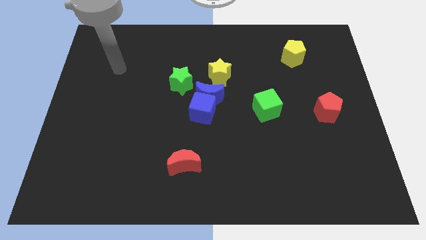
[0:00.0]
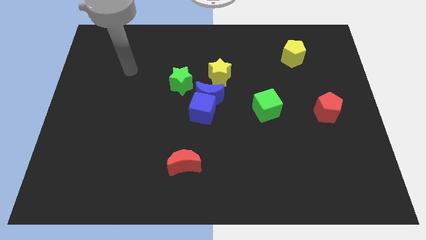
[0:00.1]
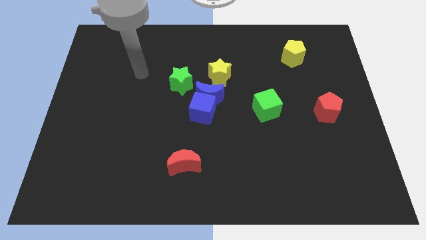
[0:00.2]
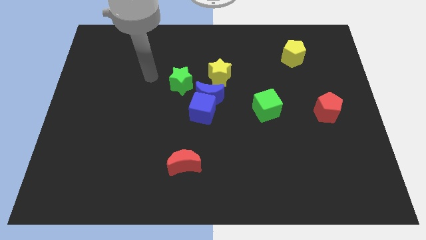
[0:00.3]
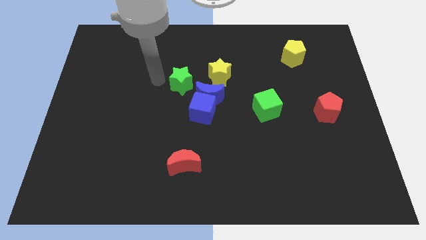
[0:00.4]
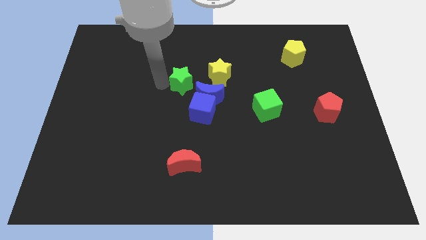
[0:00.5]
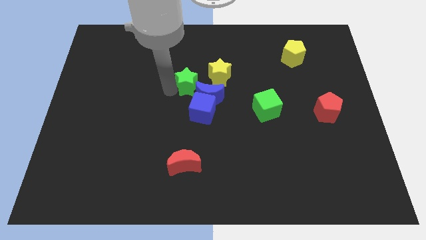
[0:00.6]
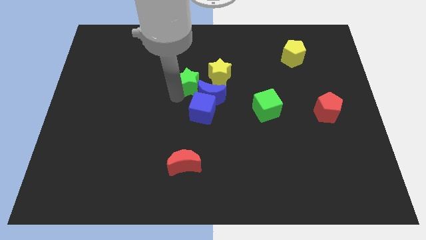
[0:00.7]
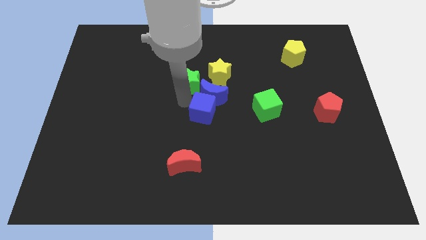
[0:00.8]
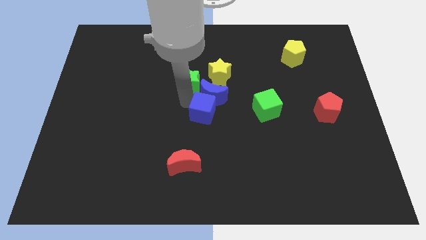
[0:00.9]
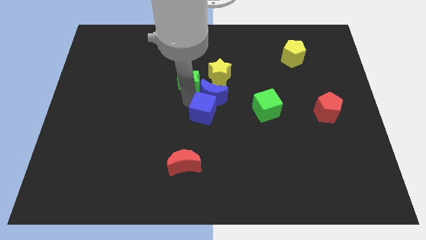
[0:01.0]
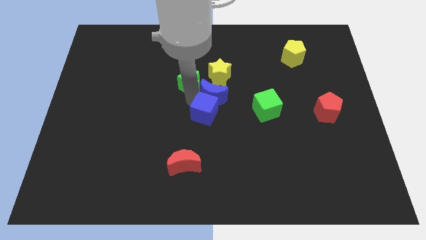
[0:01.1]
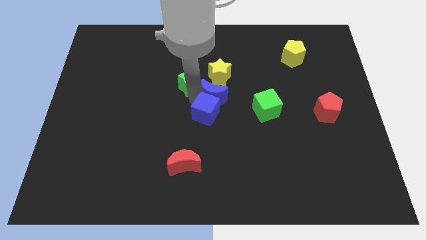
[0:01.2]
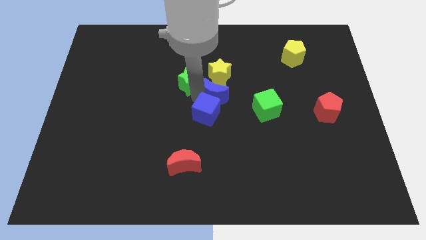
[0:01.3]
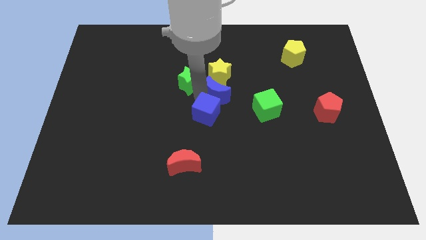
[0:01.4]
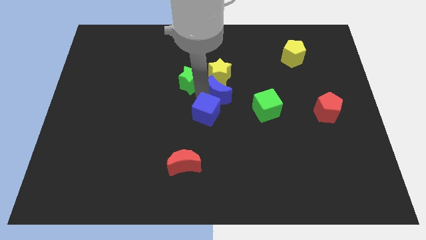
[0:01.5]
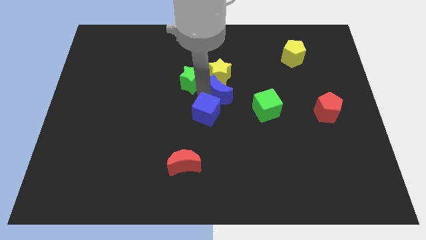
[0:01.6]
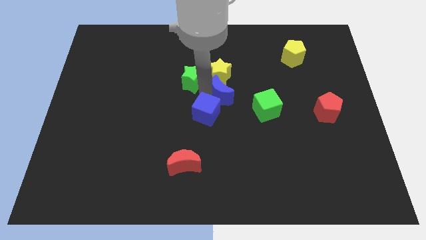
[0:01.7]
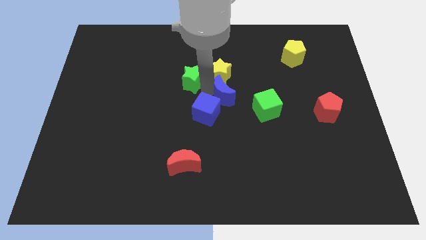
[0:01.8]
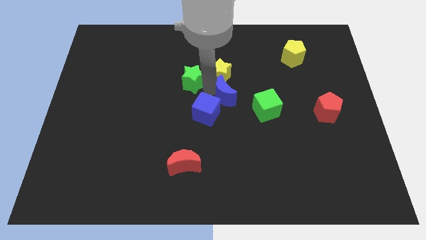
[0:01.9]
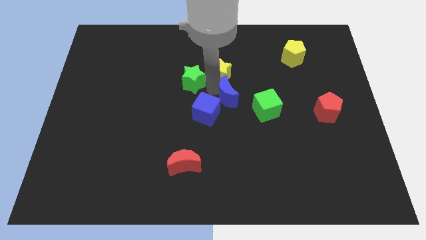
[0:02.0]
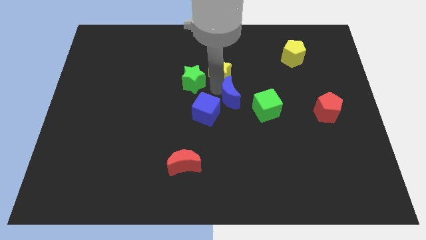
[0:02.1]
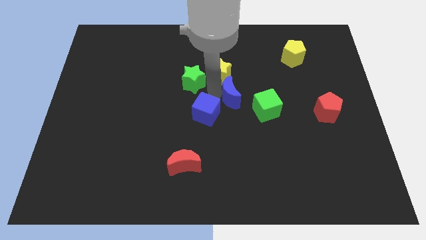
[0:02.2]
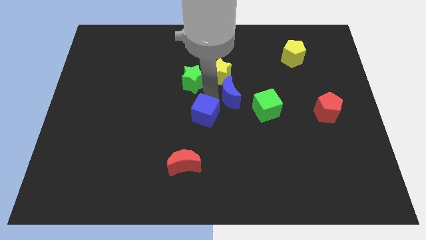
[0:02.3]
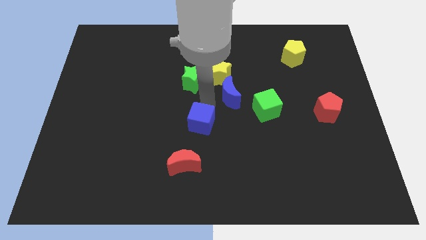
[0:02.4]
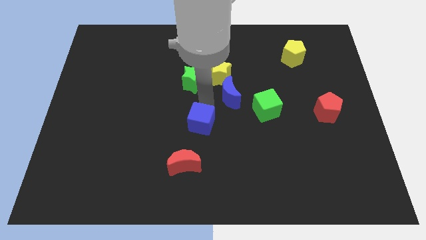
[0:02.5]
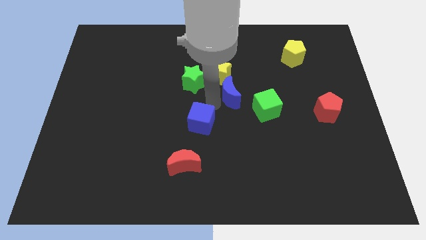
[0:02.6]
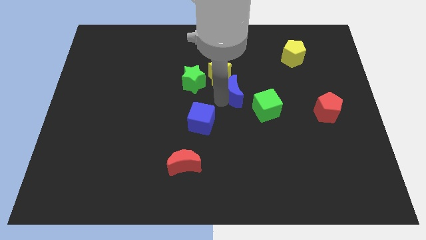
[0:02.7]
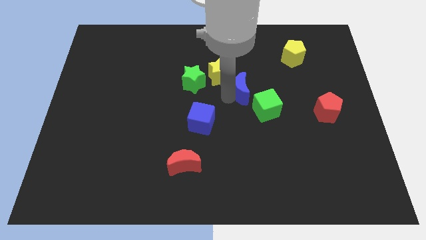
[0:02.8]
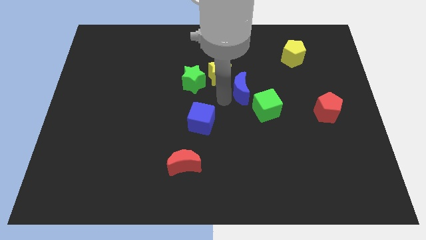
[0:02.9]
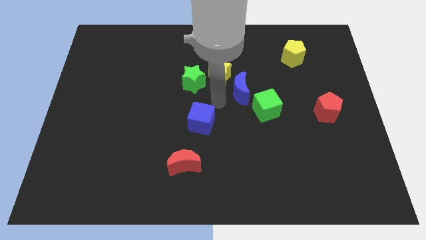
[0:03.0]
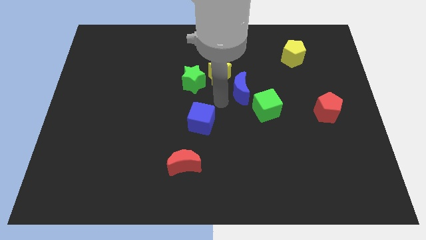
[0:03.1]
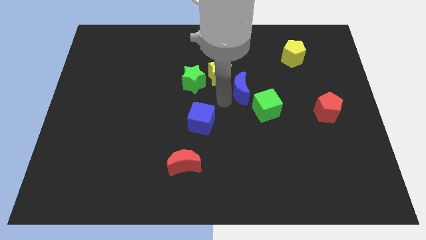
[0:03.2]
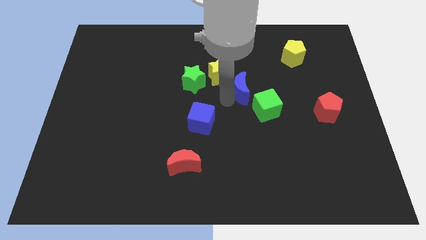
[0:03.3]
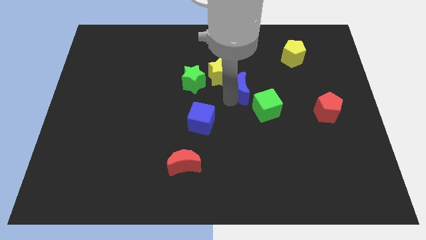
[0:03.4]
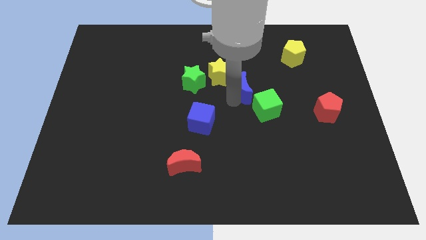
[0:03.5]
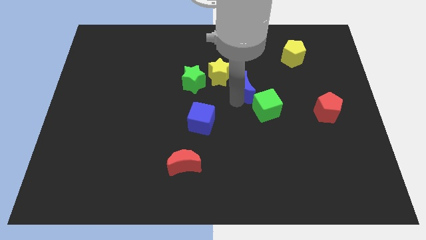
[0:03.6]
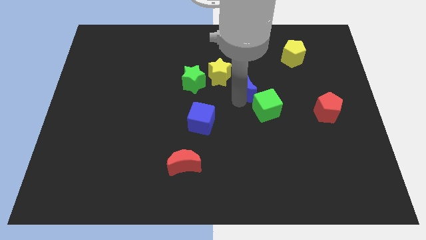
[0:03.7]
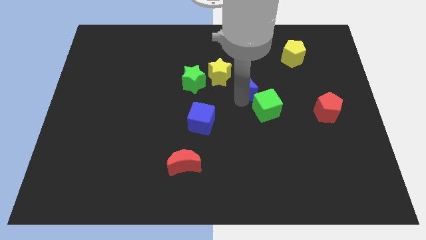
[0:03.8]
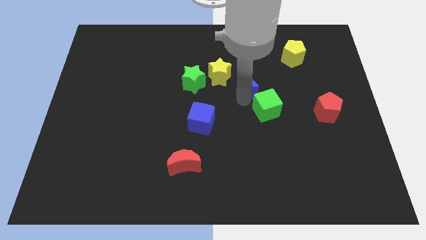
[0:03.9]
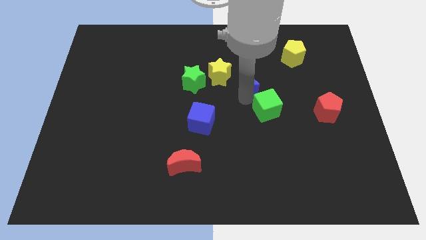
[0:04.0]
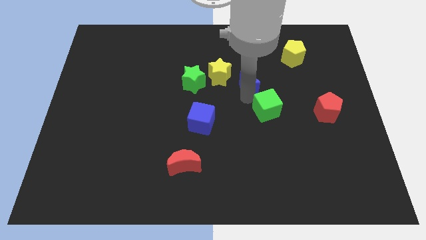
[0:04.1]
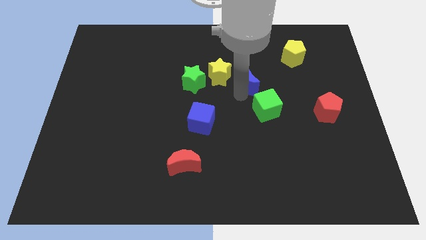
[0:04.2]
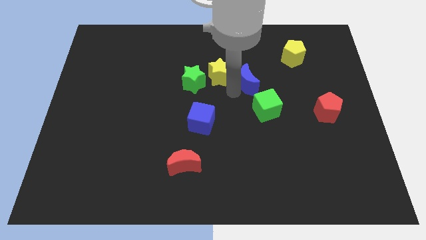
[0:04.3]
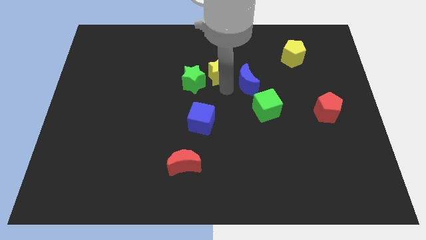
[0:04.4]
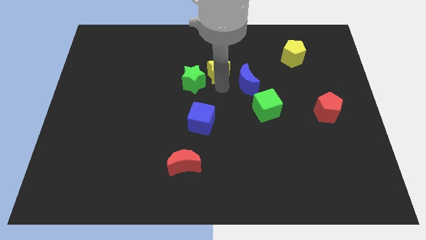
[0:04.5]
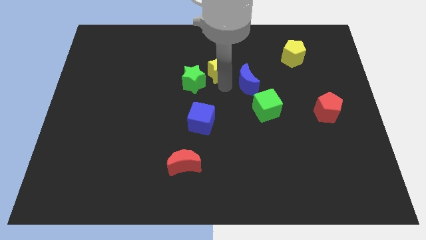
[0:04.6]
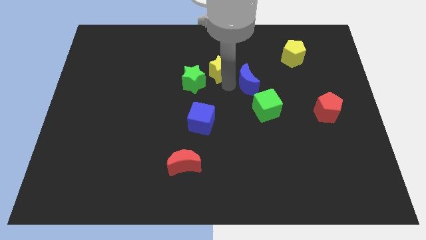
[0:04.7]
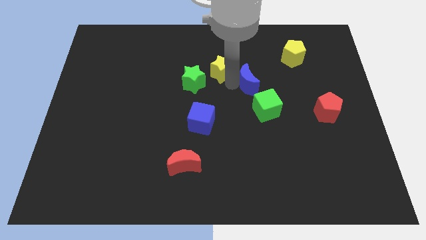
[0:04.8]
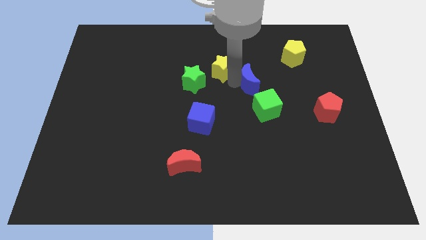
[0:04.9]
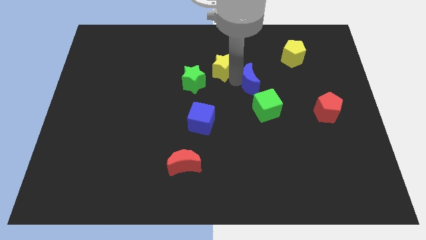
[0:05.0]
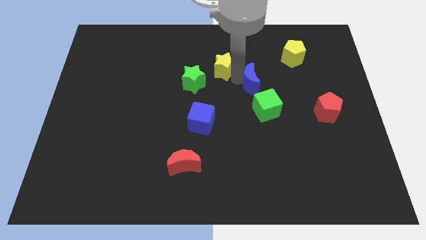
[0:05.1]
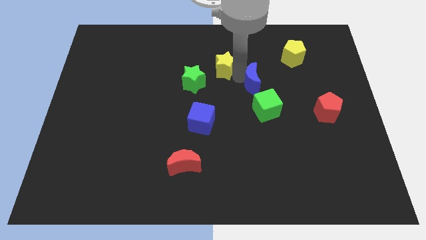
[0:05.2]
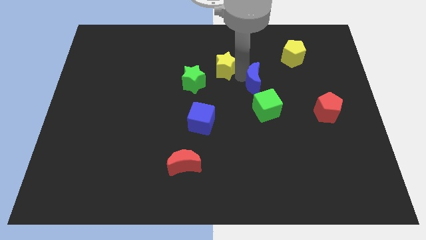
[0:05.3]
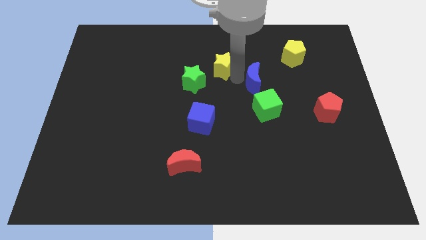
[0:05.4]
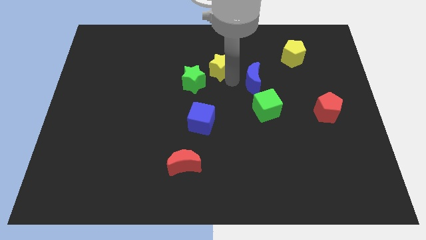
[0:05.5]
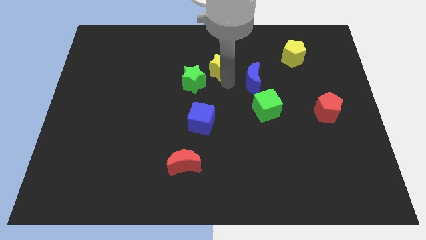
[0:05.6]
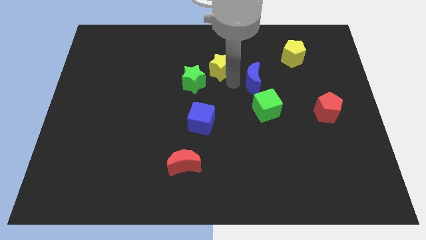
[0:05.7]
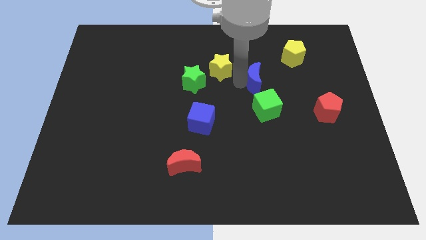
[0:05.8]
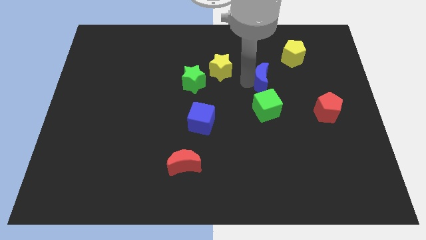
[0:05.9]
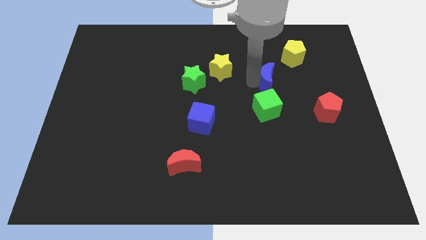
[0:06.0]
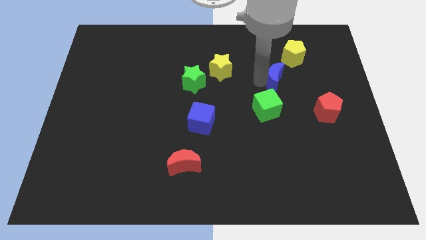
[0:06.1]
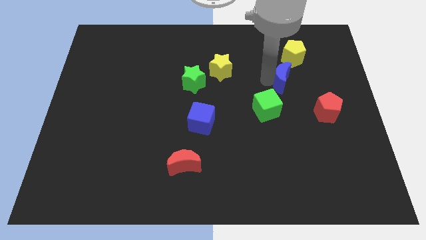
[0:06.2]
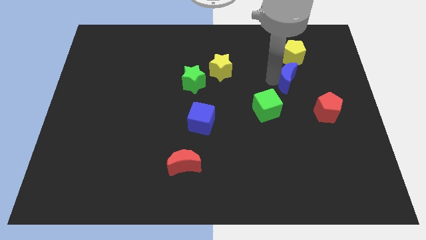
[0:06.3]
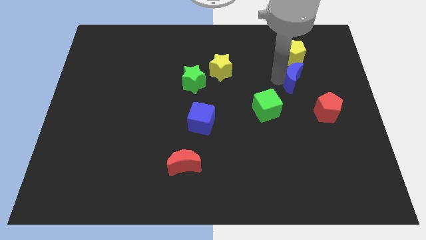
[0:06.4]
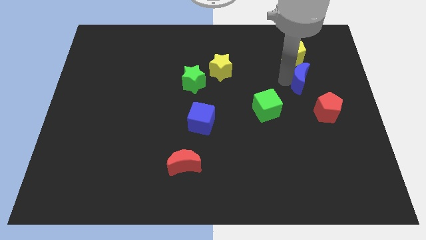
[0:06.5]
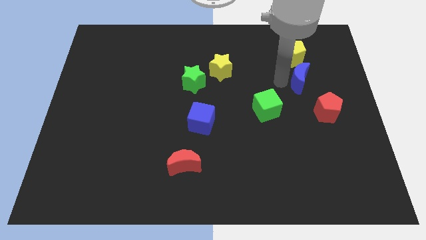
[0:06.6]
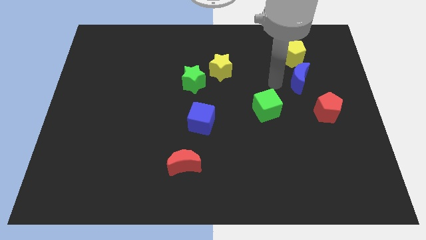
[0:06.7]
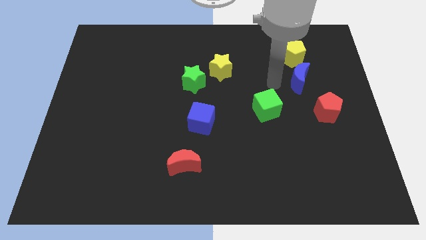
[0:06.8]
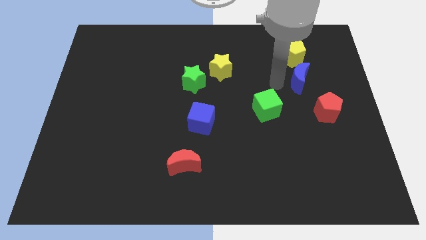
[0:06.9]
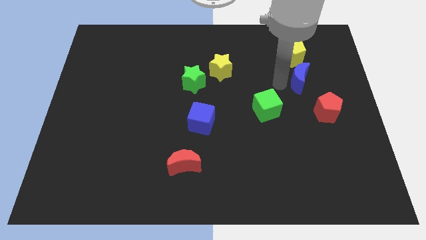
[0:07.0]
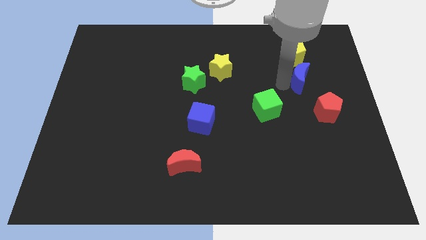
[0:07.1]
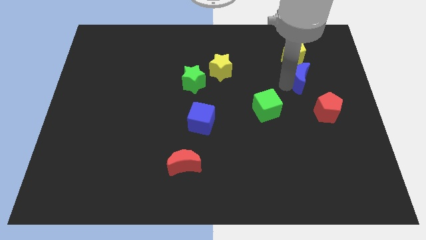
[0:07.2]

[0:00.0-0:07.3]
push the blue moon above the red pentagon

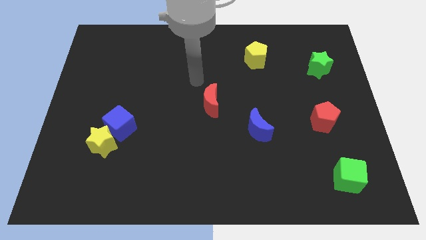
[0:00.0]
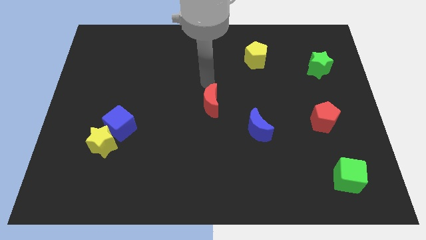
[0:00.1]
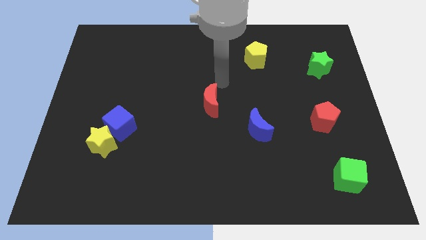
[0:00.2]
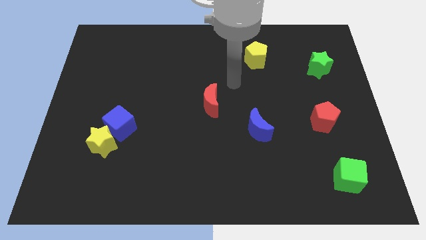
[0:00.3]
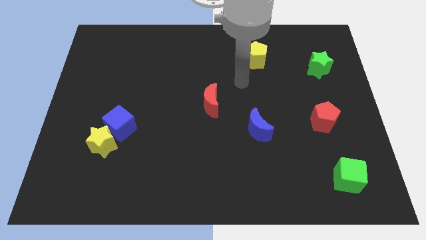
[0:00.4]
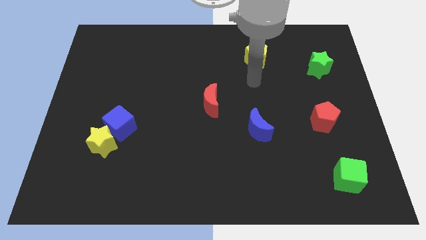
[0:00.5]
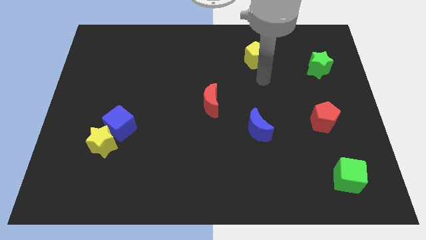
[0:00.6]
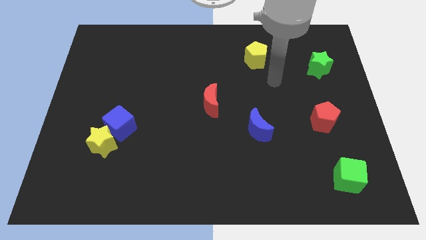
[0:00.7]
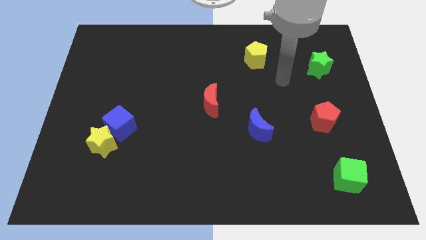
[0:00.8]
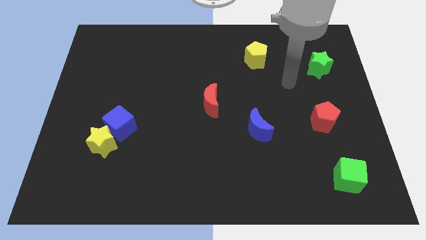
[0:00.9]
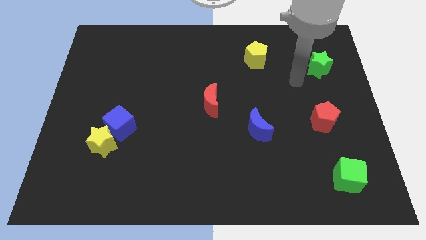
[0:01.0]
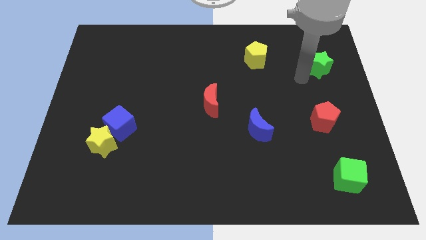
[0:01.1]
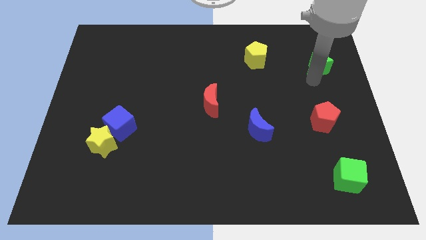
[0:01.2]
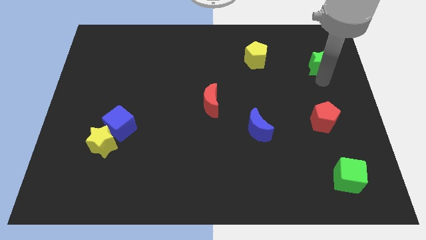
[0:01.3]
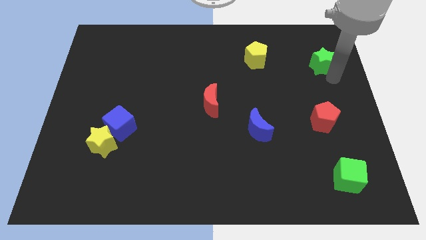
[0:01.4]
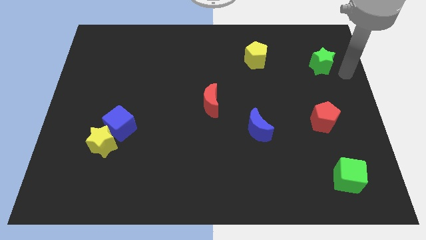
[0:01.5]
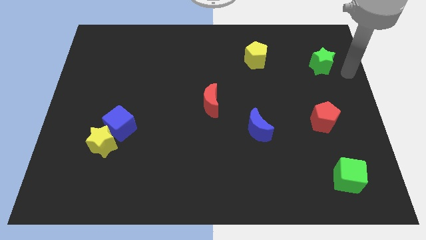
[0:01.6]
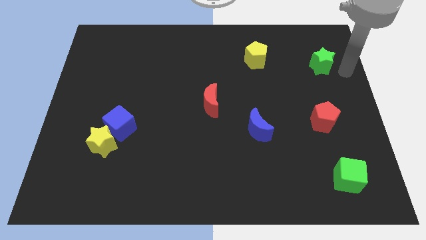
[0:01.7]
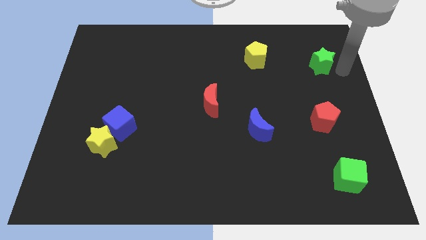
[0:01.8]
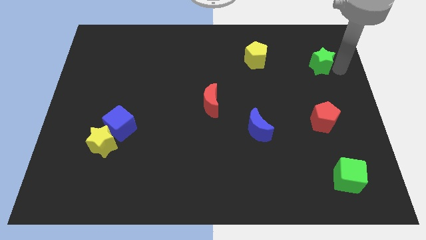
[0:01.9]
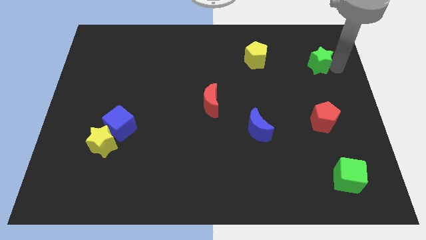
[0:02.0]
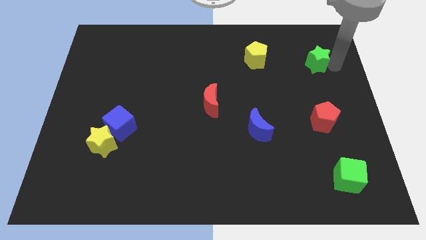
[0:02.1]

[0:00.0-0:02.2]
put the green star right of the yellow pentagon
